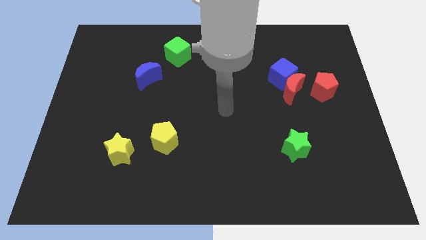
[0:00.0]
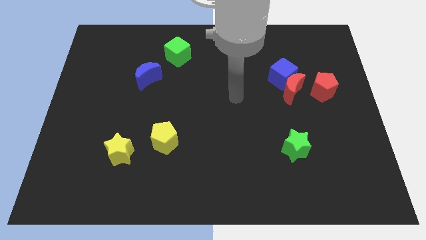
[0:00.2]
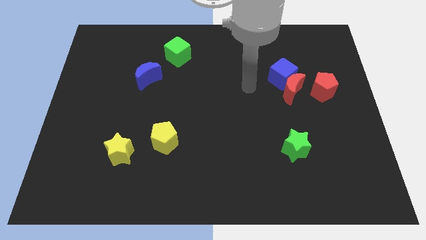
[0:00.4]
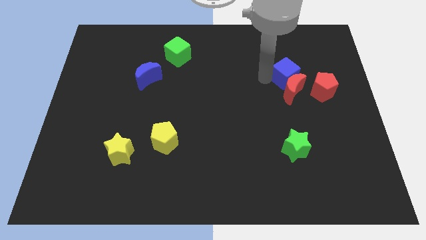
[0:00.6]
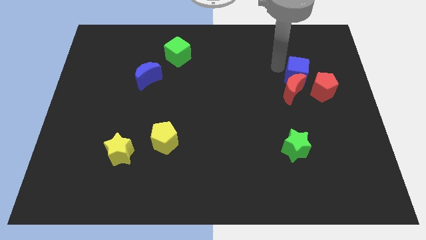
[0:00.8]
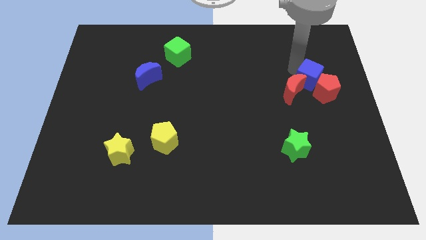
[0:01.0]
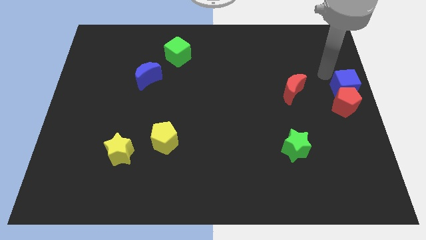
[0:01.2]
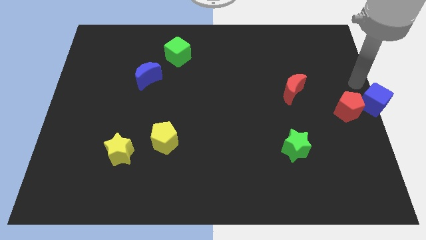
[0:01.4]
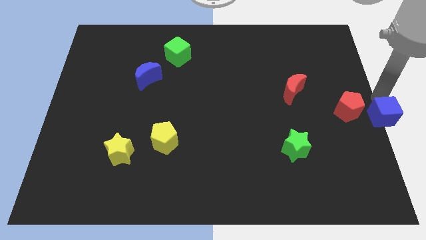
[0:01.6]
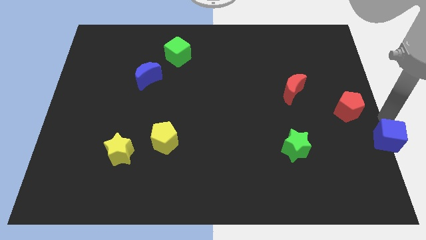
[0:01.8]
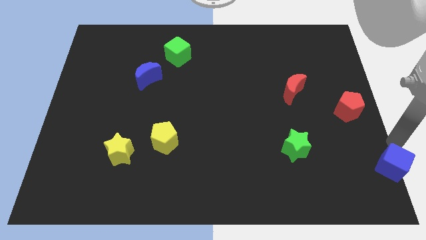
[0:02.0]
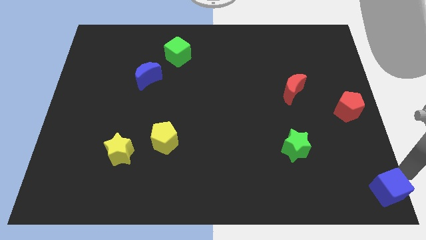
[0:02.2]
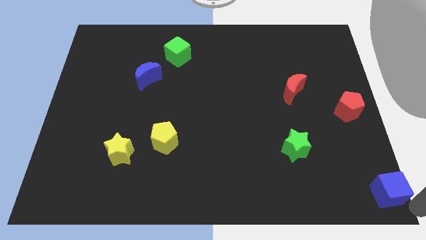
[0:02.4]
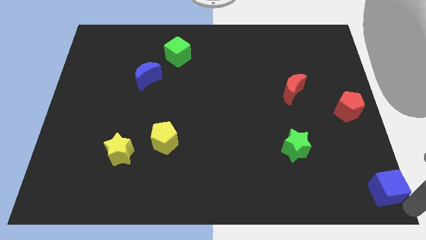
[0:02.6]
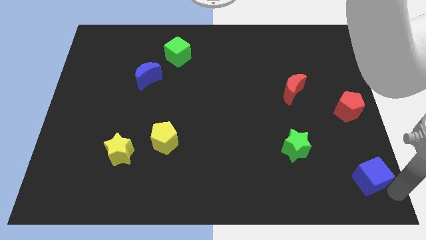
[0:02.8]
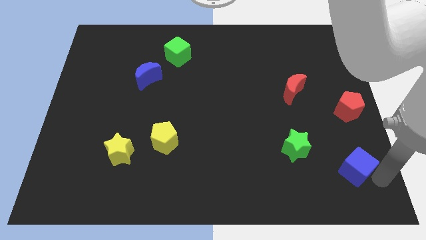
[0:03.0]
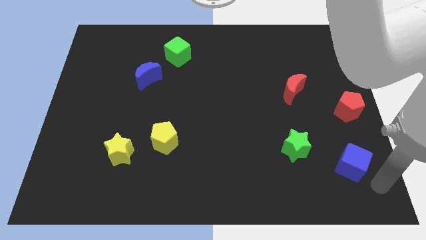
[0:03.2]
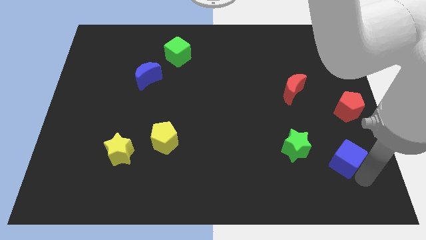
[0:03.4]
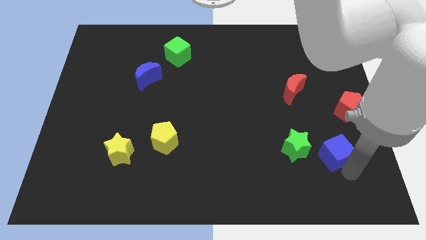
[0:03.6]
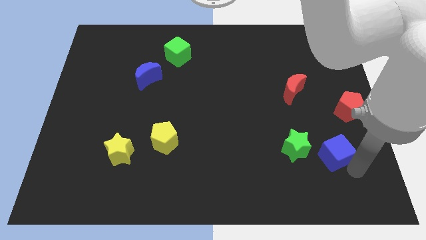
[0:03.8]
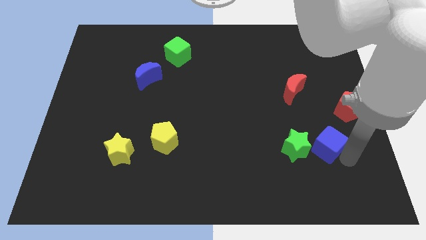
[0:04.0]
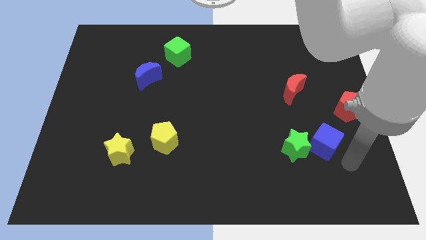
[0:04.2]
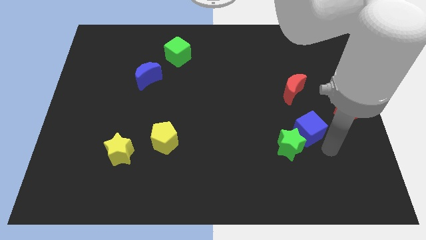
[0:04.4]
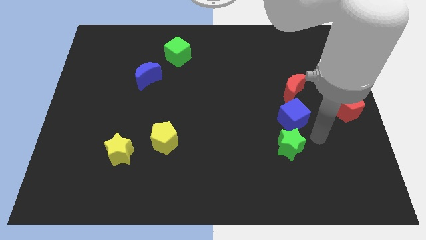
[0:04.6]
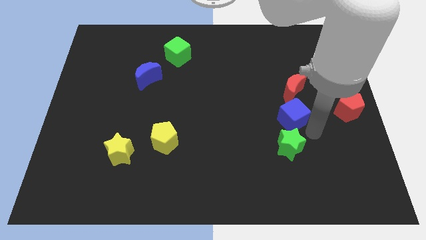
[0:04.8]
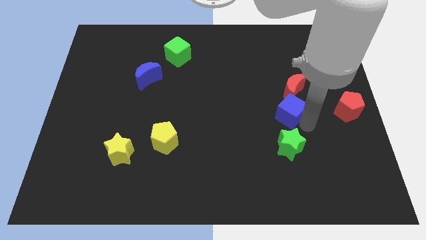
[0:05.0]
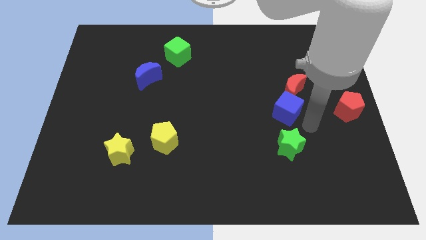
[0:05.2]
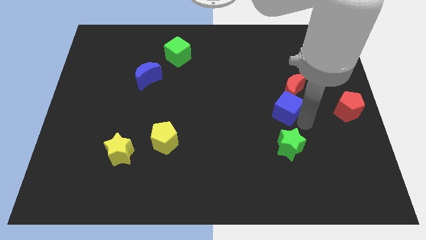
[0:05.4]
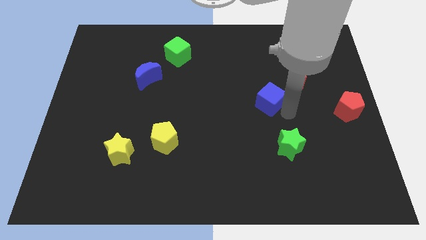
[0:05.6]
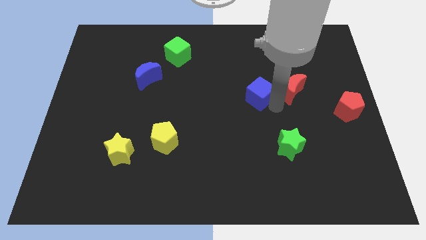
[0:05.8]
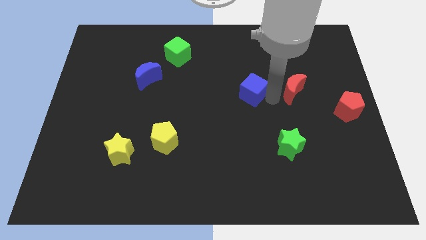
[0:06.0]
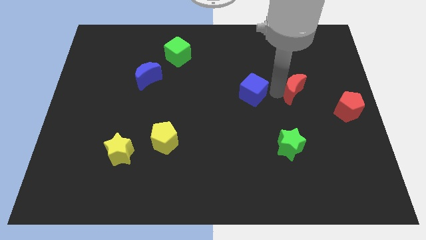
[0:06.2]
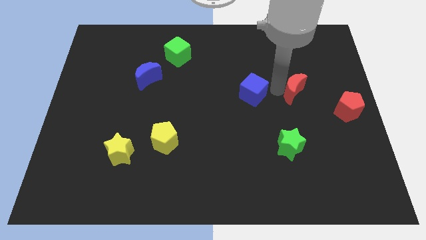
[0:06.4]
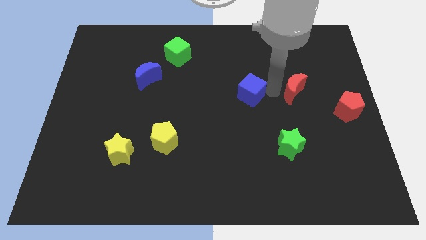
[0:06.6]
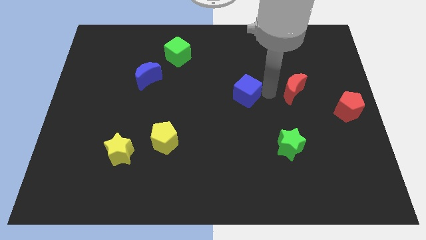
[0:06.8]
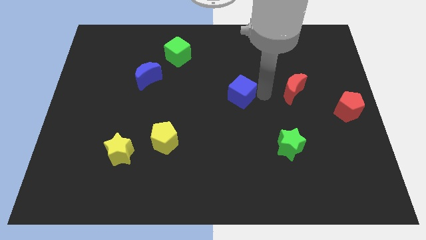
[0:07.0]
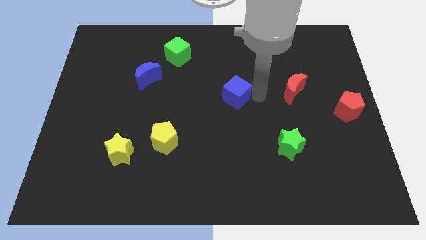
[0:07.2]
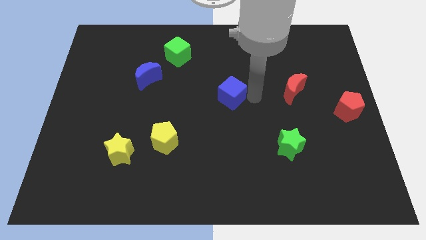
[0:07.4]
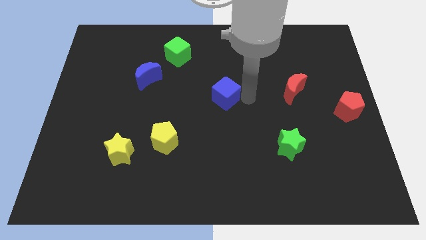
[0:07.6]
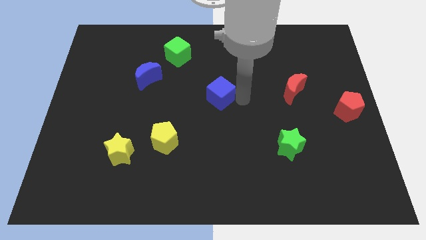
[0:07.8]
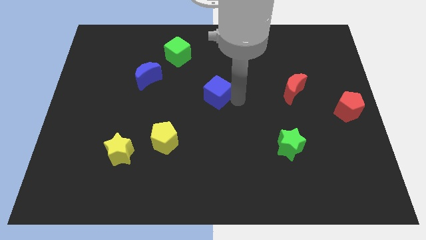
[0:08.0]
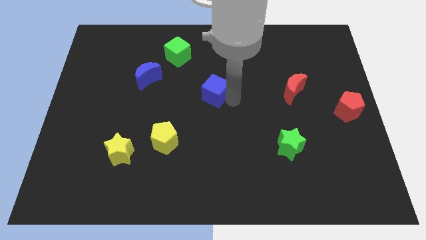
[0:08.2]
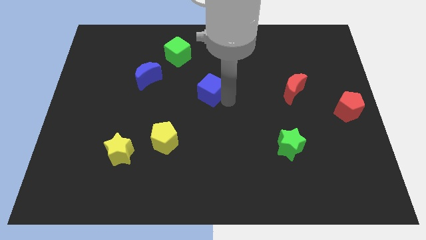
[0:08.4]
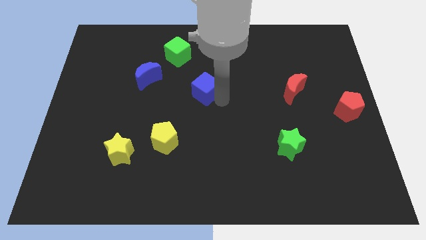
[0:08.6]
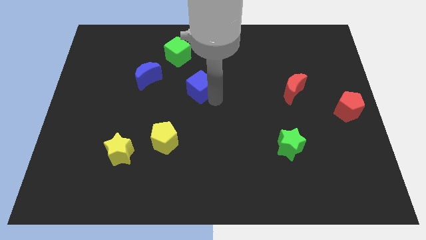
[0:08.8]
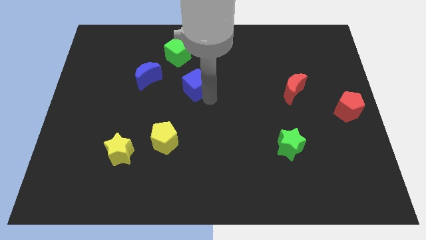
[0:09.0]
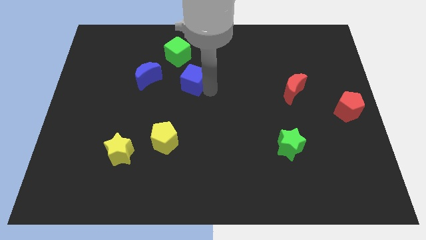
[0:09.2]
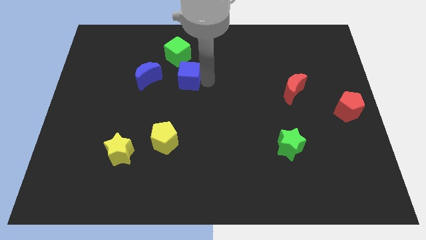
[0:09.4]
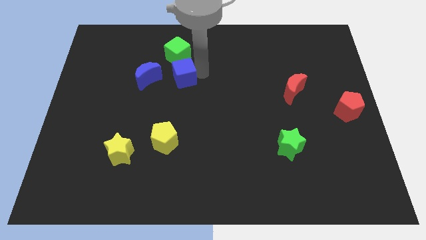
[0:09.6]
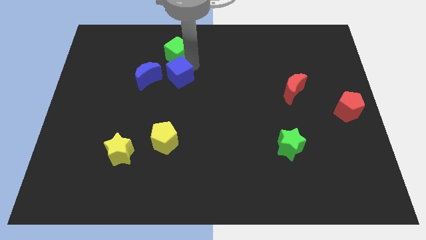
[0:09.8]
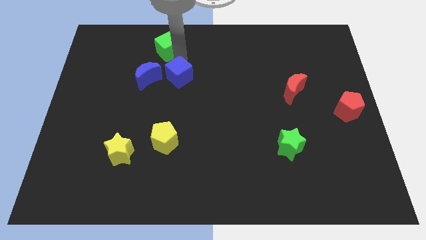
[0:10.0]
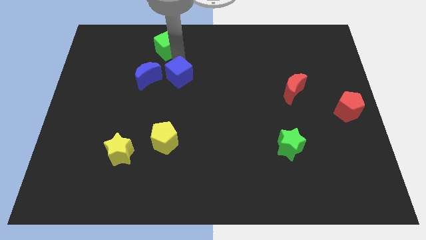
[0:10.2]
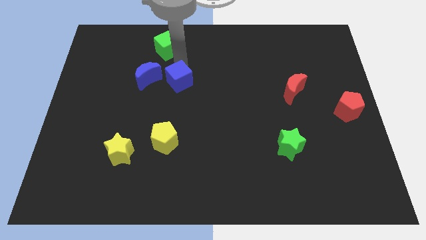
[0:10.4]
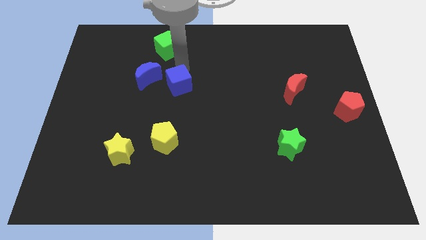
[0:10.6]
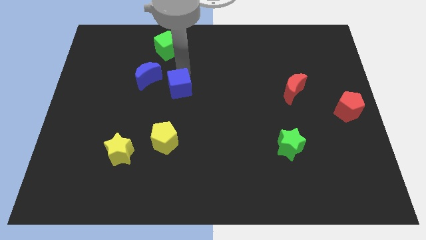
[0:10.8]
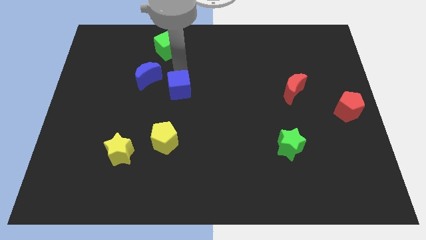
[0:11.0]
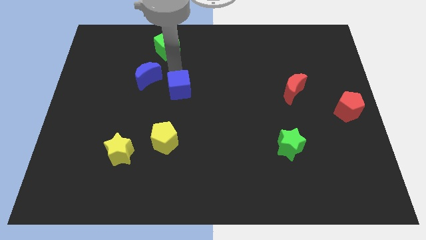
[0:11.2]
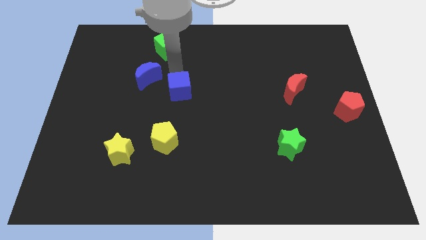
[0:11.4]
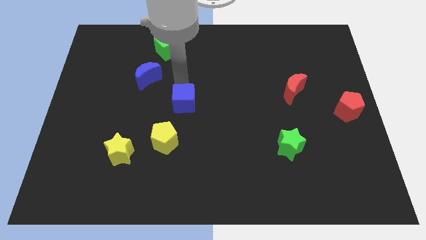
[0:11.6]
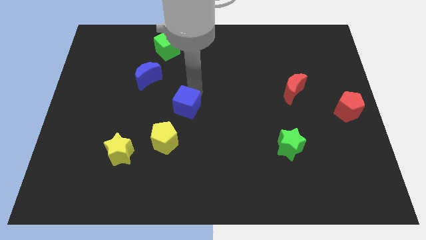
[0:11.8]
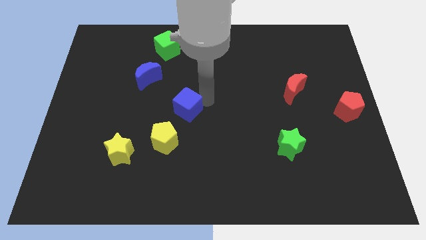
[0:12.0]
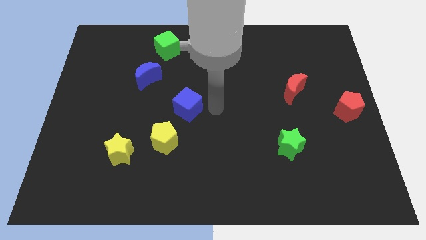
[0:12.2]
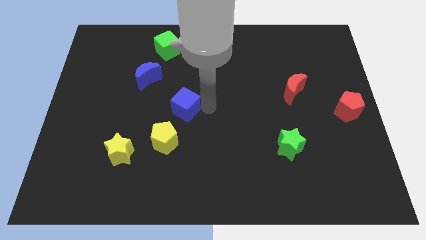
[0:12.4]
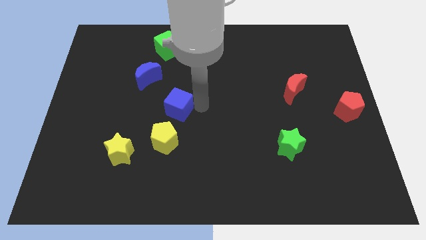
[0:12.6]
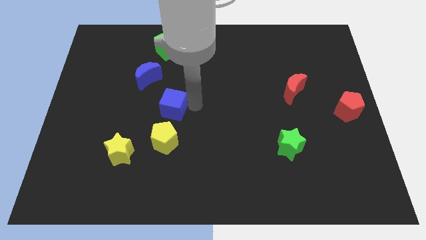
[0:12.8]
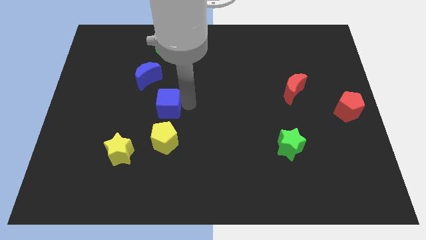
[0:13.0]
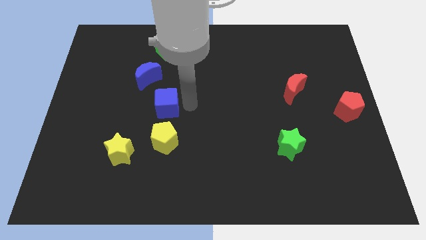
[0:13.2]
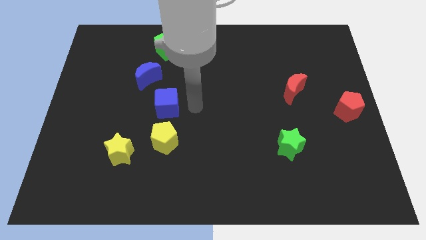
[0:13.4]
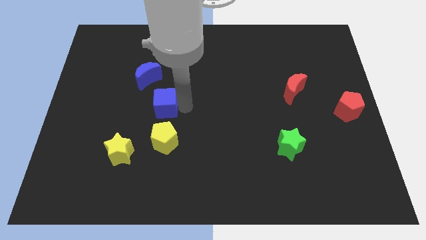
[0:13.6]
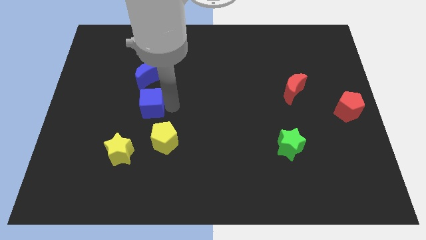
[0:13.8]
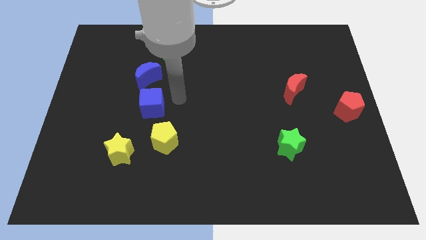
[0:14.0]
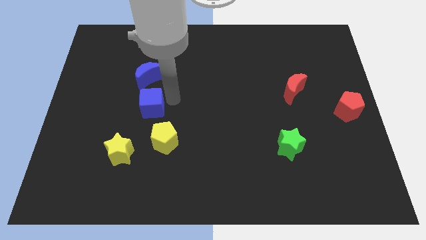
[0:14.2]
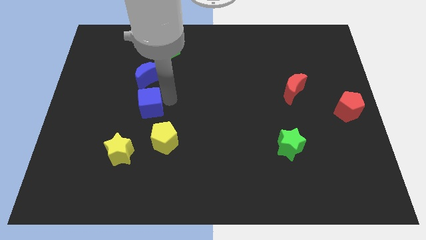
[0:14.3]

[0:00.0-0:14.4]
push the blue cube to the top side of the yellow star
